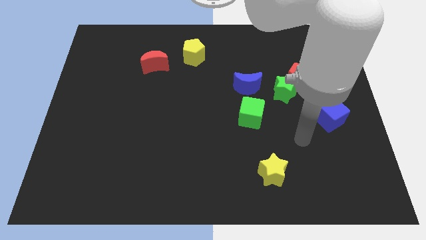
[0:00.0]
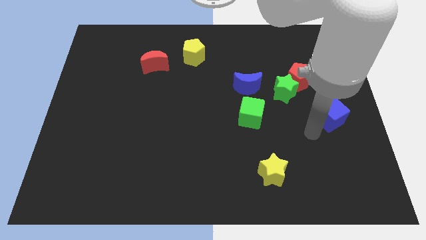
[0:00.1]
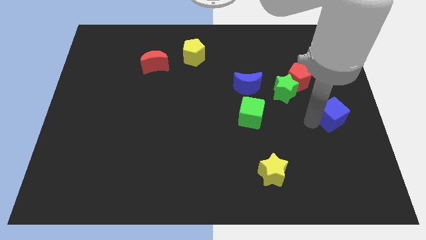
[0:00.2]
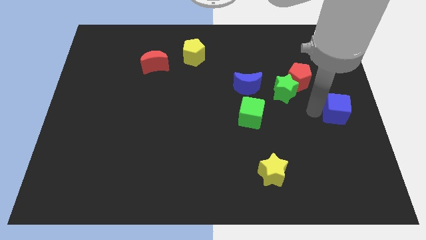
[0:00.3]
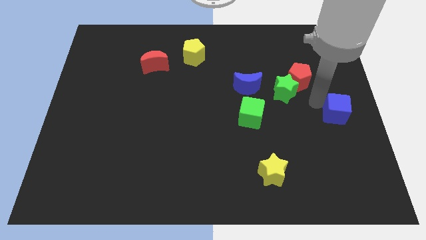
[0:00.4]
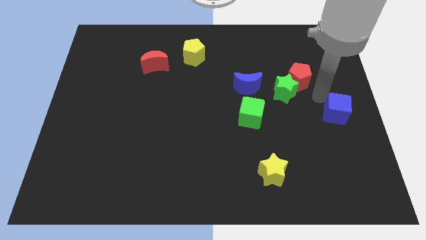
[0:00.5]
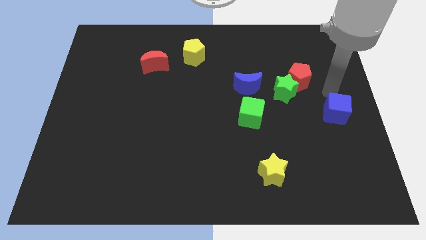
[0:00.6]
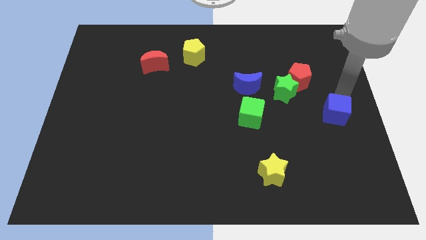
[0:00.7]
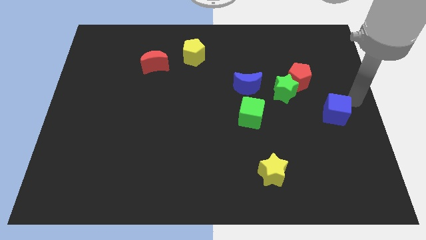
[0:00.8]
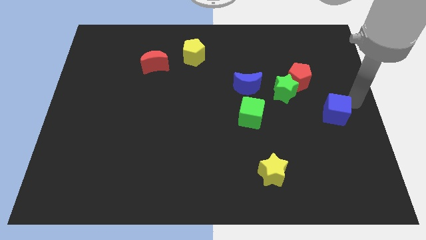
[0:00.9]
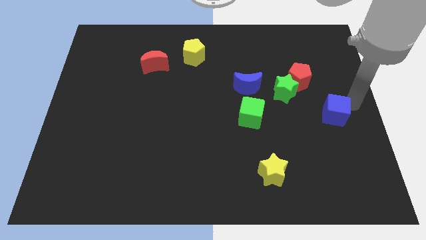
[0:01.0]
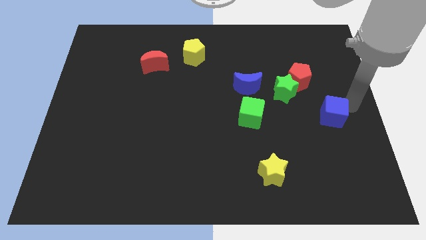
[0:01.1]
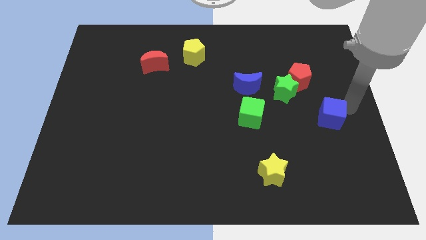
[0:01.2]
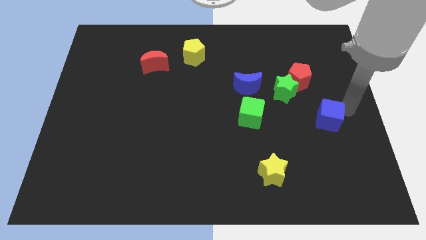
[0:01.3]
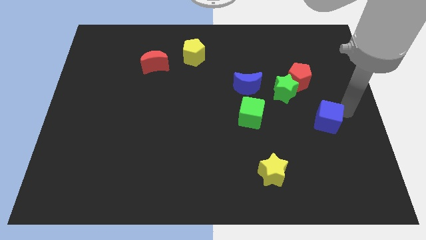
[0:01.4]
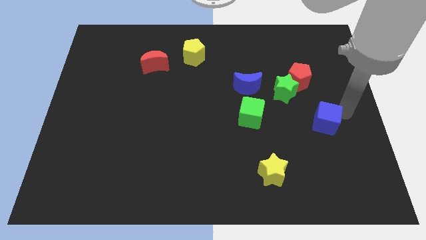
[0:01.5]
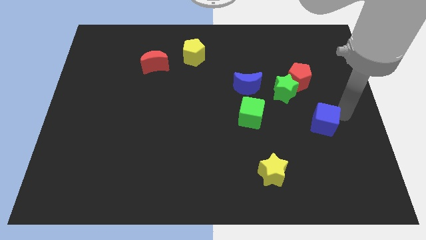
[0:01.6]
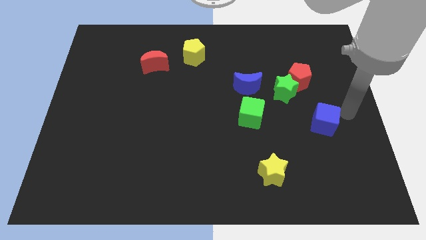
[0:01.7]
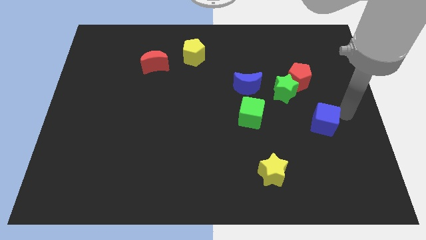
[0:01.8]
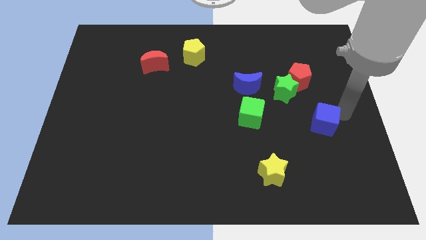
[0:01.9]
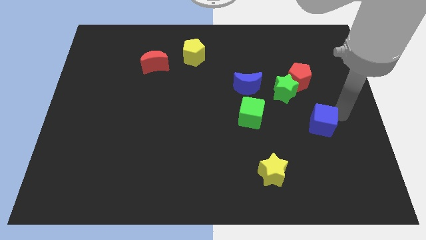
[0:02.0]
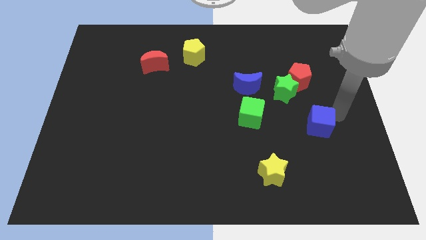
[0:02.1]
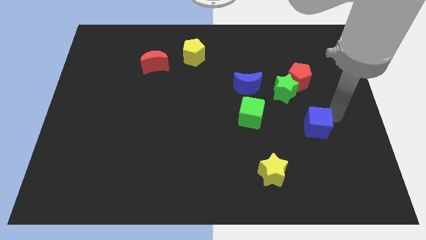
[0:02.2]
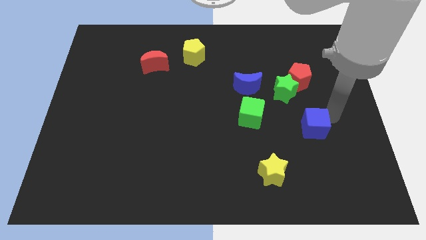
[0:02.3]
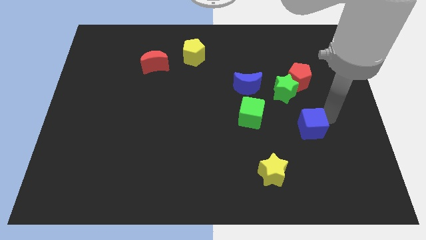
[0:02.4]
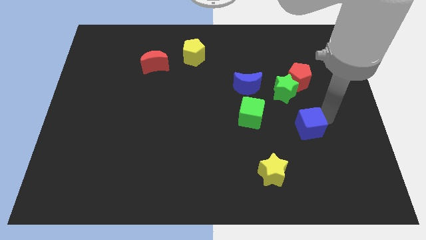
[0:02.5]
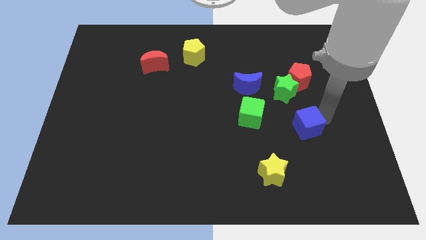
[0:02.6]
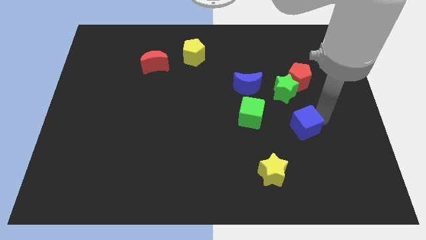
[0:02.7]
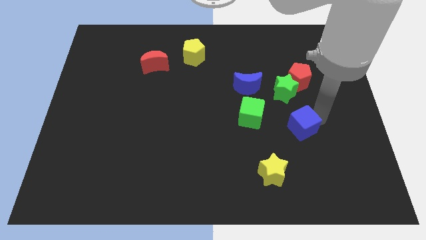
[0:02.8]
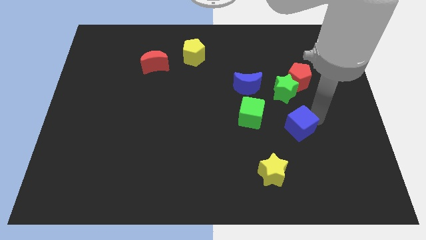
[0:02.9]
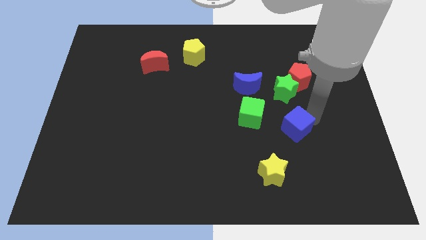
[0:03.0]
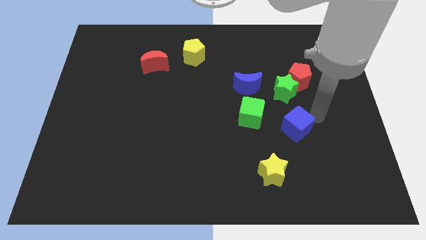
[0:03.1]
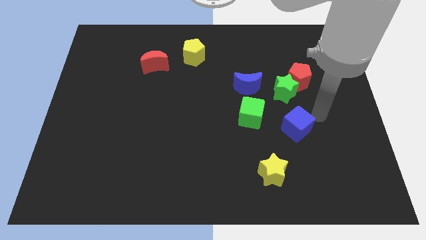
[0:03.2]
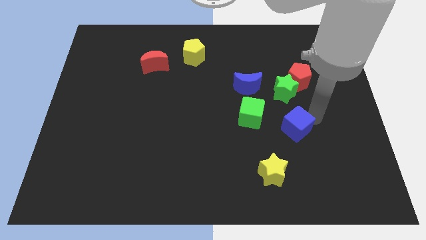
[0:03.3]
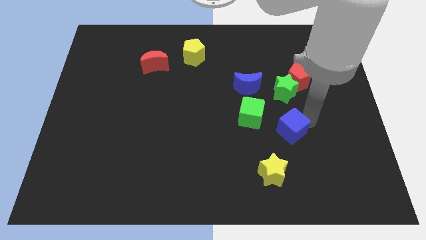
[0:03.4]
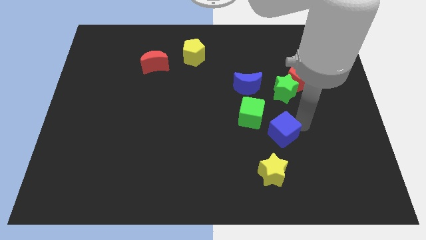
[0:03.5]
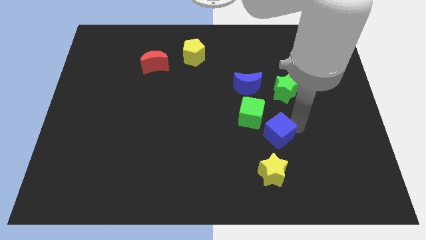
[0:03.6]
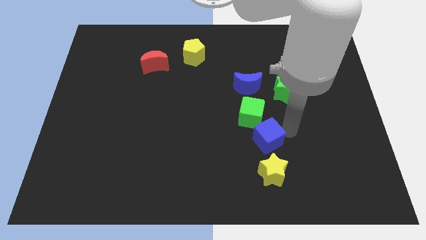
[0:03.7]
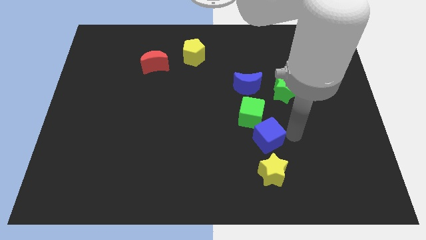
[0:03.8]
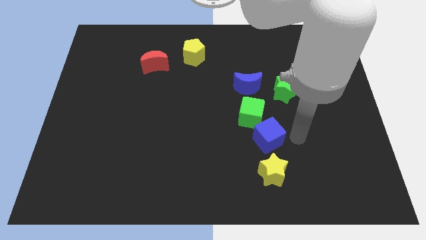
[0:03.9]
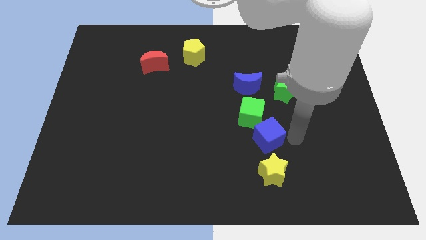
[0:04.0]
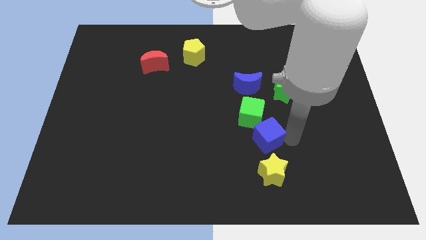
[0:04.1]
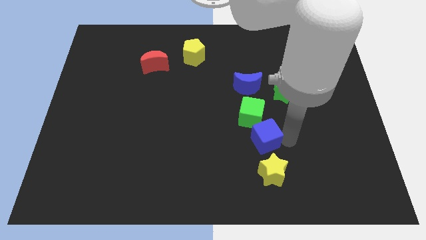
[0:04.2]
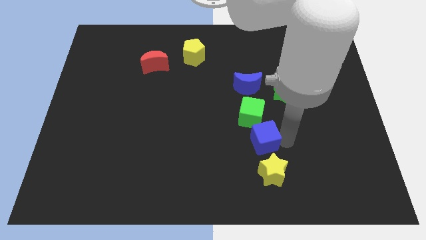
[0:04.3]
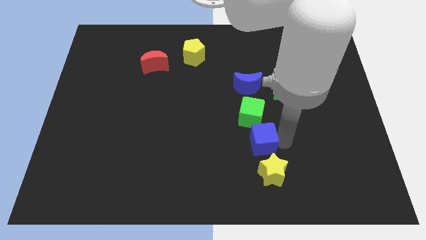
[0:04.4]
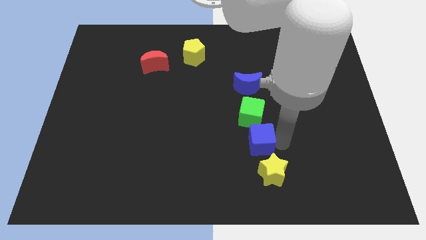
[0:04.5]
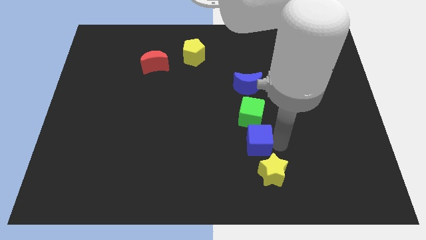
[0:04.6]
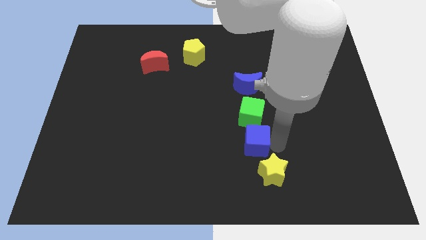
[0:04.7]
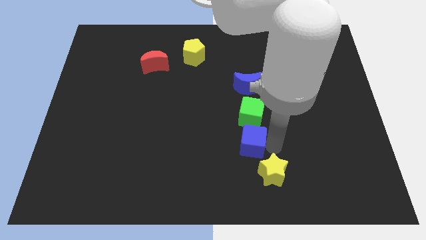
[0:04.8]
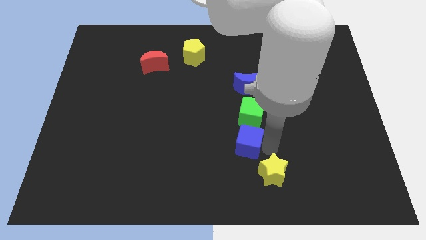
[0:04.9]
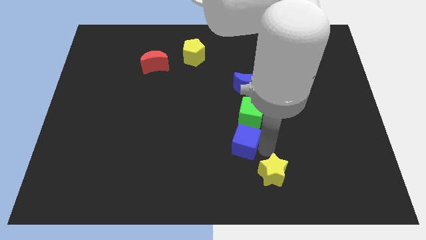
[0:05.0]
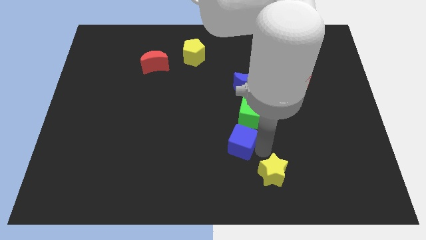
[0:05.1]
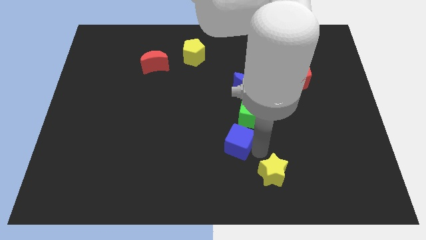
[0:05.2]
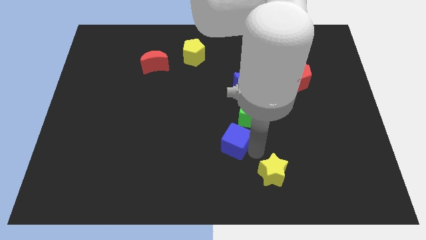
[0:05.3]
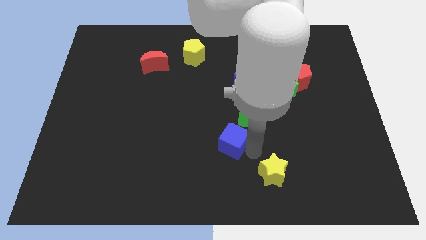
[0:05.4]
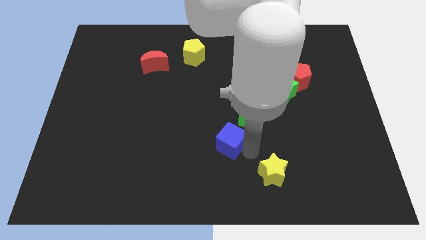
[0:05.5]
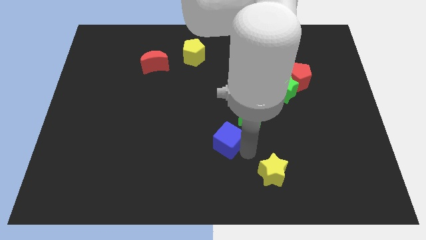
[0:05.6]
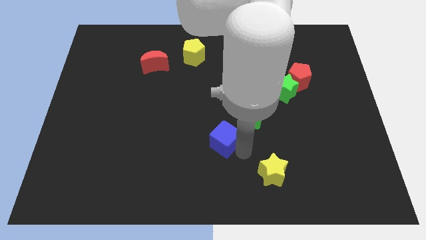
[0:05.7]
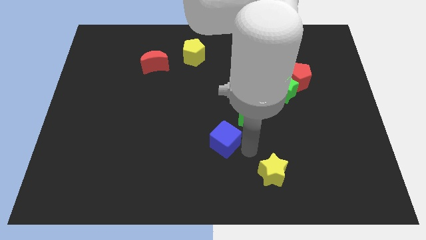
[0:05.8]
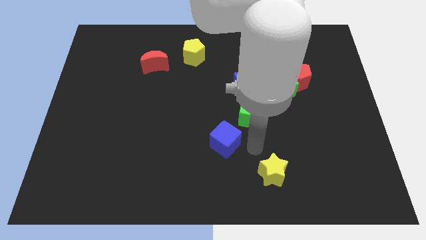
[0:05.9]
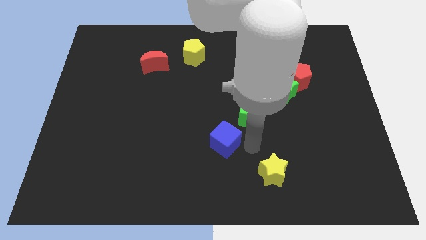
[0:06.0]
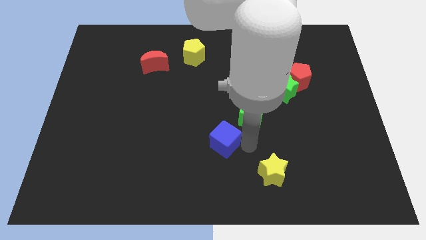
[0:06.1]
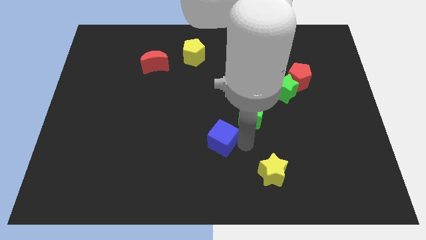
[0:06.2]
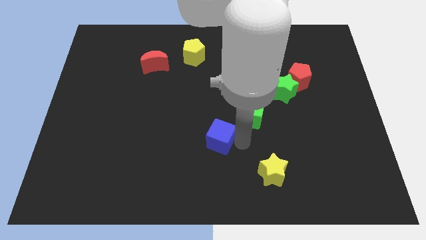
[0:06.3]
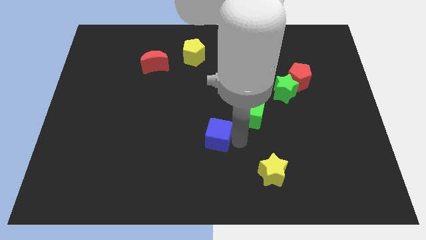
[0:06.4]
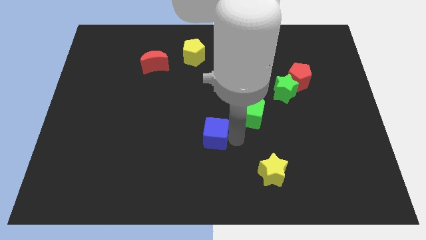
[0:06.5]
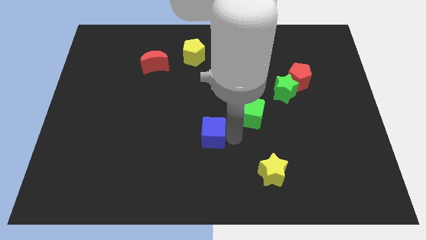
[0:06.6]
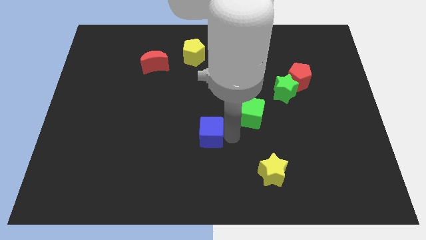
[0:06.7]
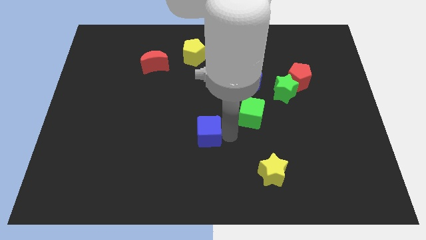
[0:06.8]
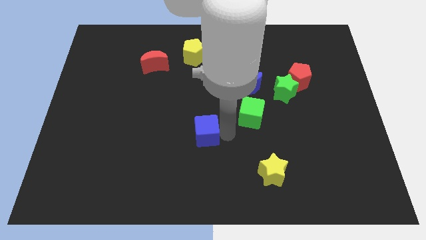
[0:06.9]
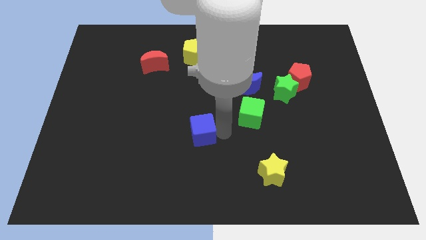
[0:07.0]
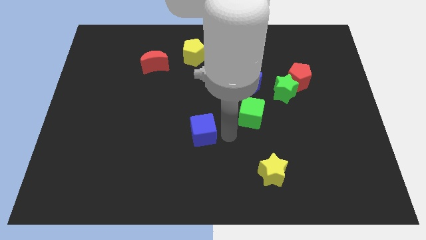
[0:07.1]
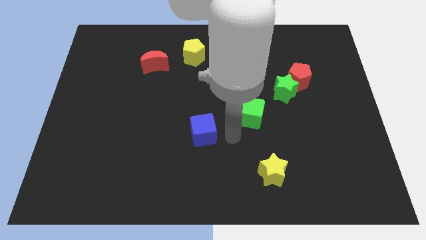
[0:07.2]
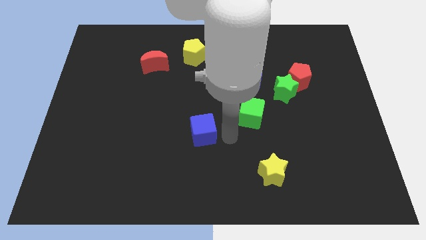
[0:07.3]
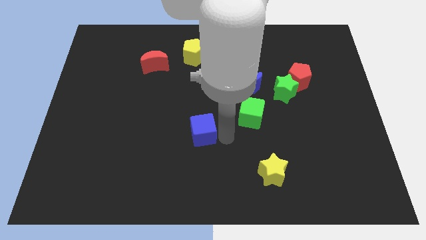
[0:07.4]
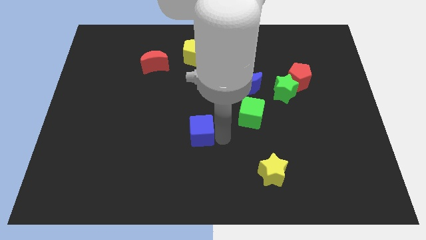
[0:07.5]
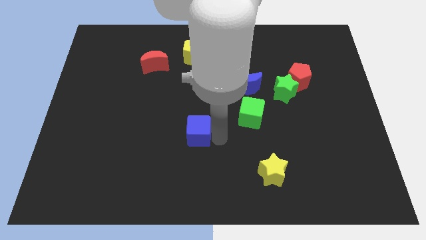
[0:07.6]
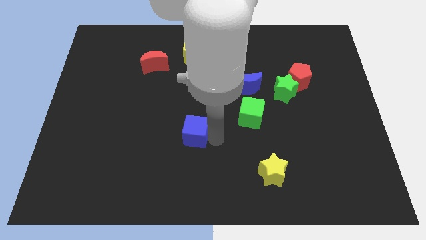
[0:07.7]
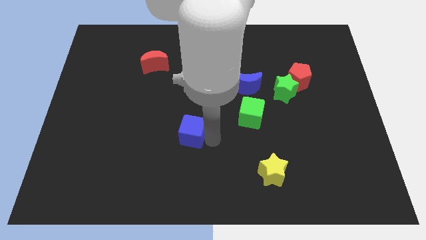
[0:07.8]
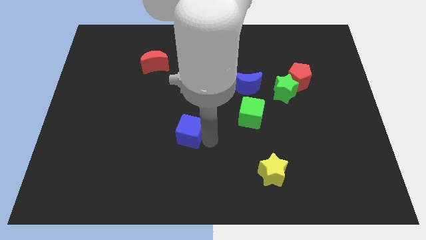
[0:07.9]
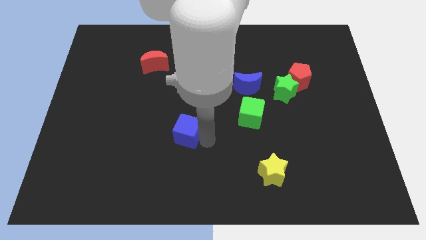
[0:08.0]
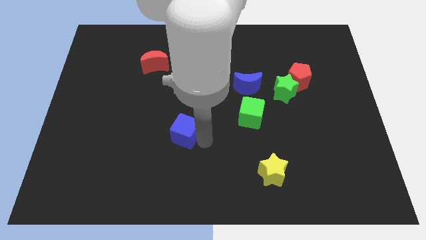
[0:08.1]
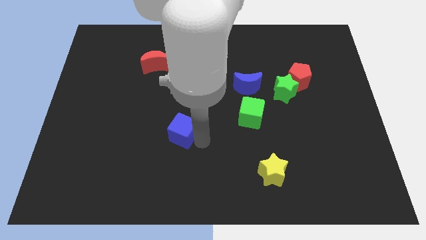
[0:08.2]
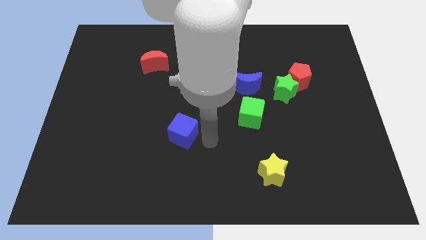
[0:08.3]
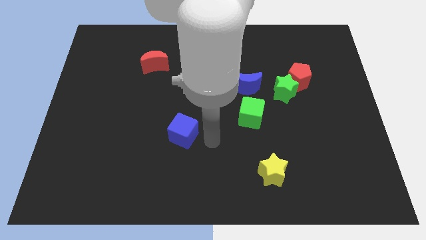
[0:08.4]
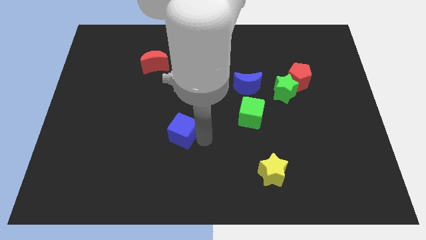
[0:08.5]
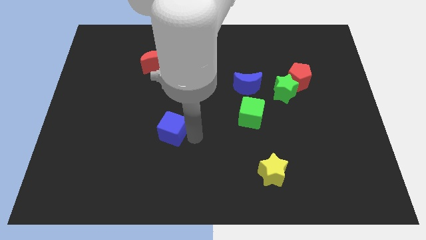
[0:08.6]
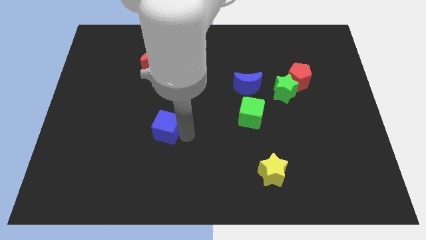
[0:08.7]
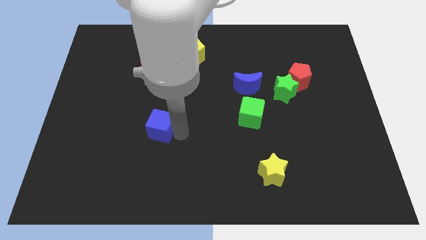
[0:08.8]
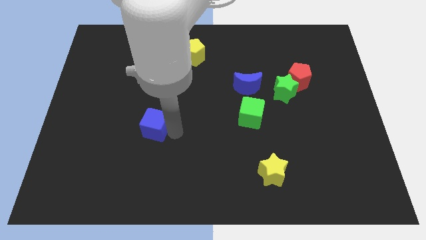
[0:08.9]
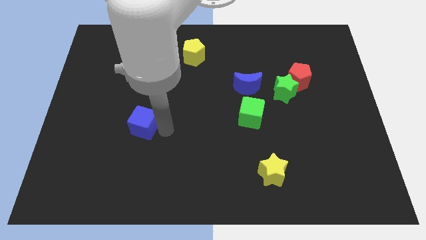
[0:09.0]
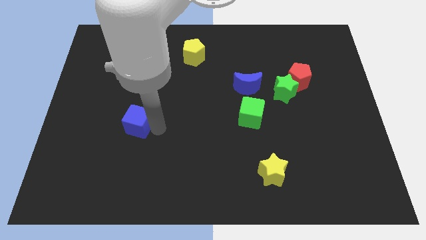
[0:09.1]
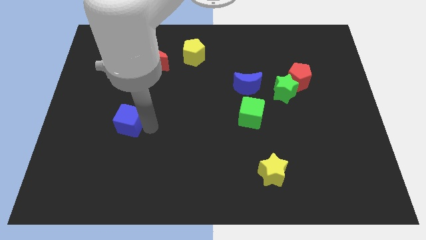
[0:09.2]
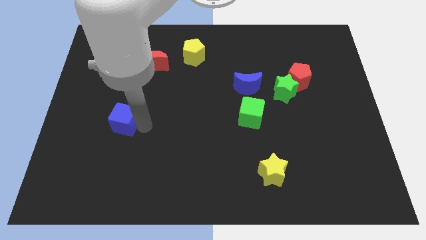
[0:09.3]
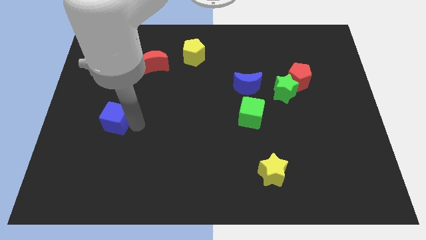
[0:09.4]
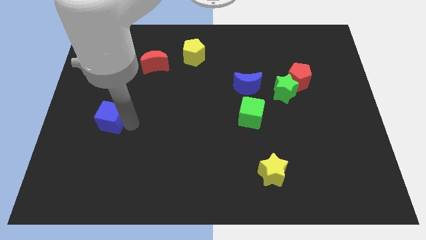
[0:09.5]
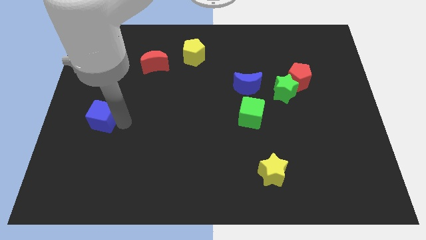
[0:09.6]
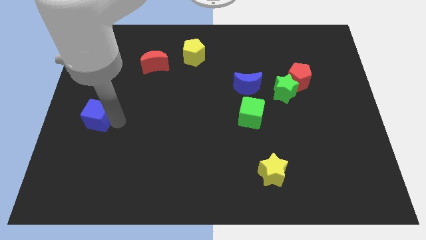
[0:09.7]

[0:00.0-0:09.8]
move the blue cube to the center left
